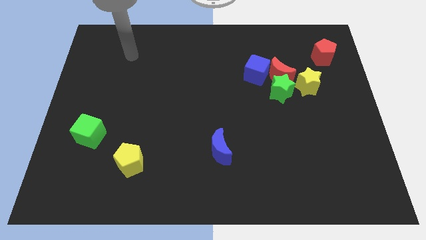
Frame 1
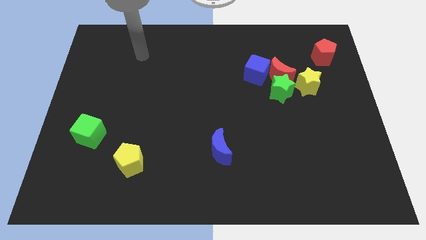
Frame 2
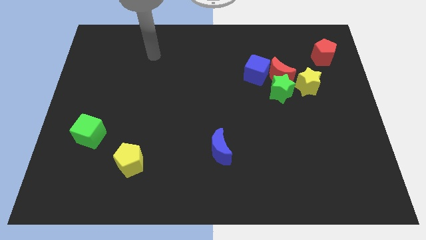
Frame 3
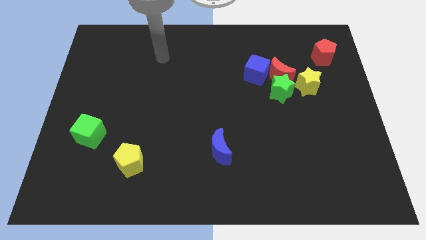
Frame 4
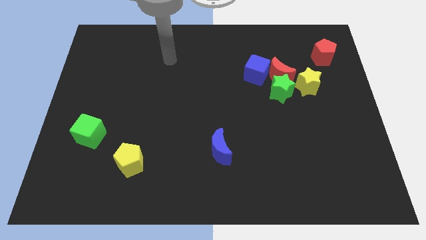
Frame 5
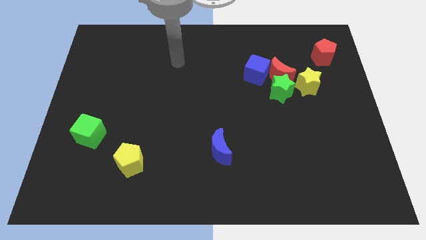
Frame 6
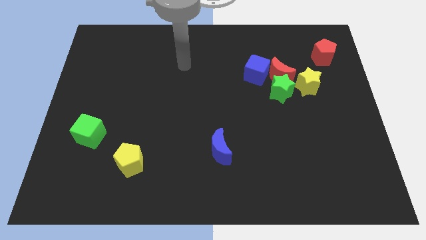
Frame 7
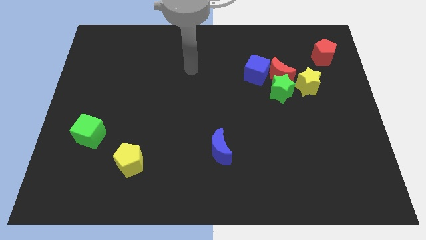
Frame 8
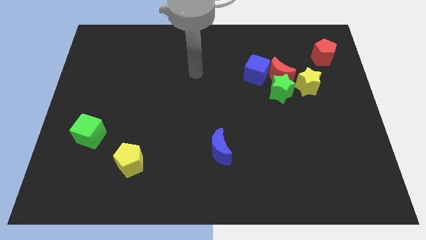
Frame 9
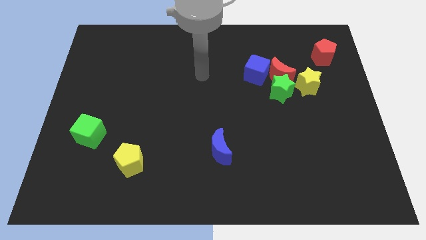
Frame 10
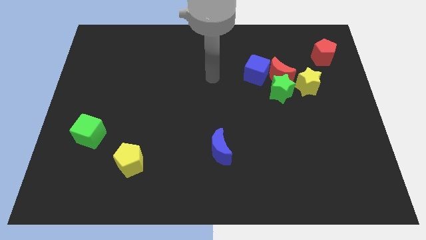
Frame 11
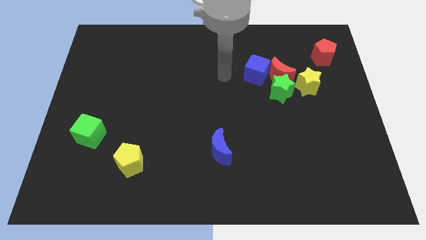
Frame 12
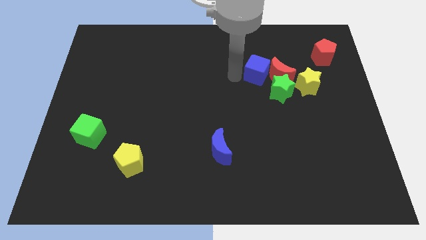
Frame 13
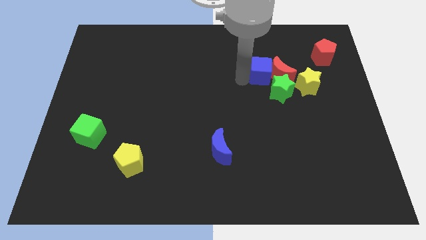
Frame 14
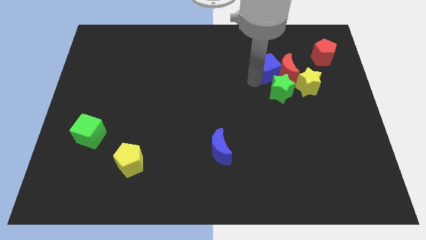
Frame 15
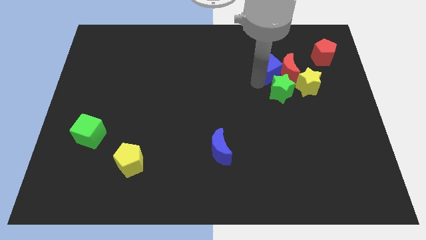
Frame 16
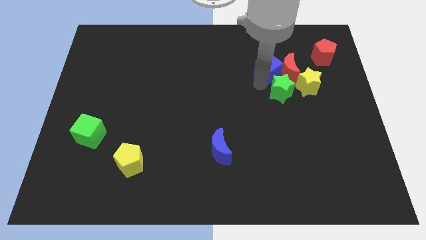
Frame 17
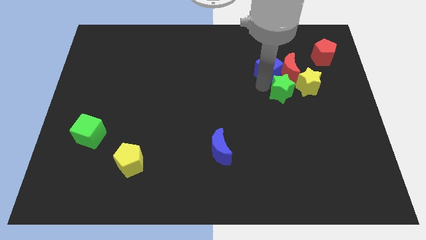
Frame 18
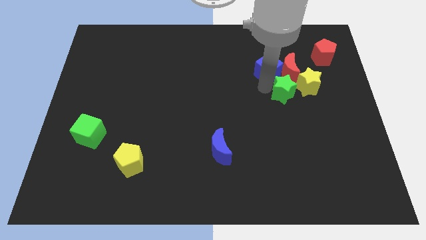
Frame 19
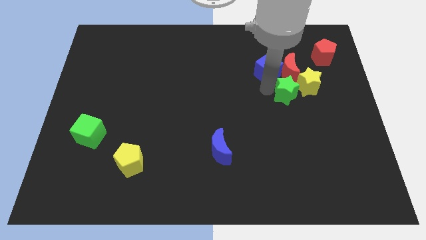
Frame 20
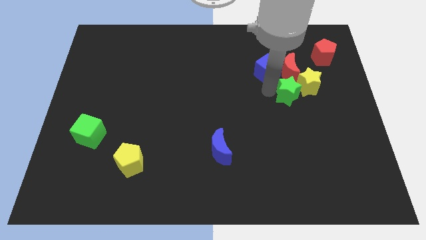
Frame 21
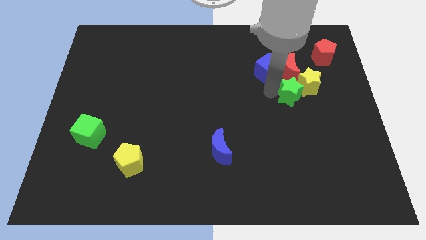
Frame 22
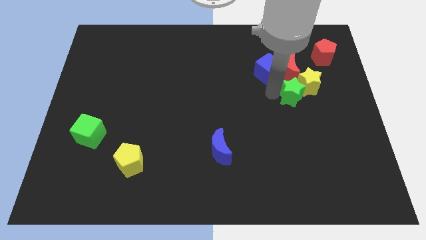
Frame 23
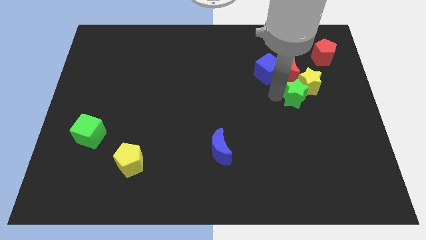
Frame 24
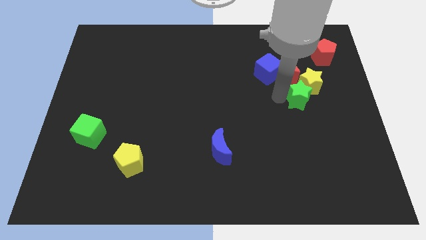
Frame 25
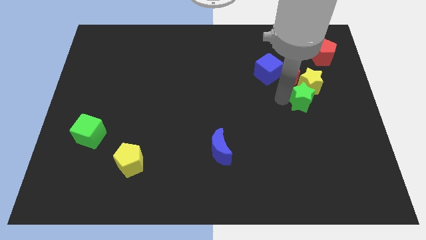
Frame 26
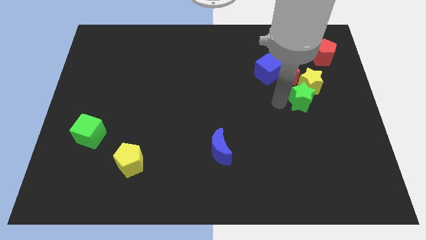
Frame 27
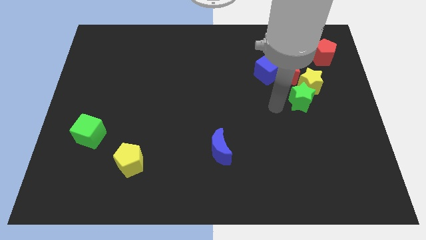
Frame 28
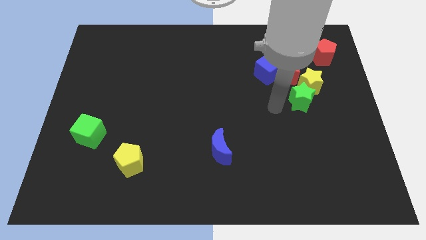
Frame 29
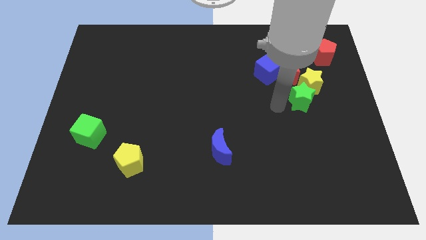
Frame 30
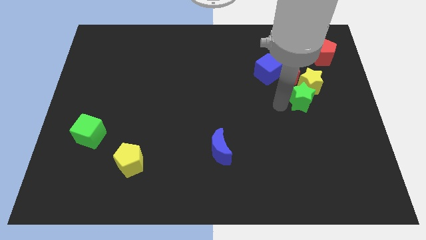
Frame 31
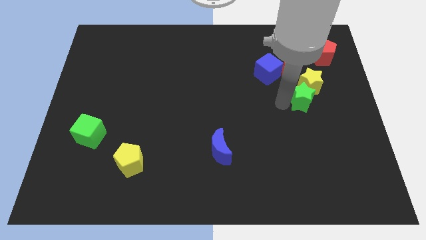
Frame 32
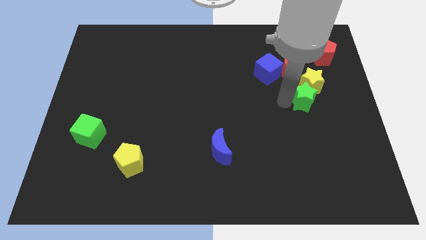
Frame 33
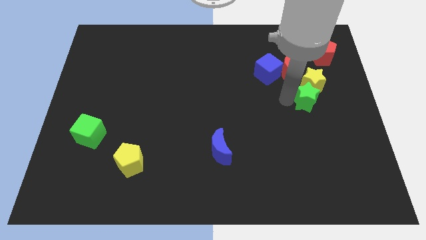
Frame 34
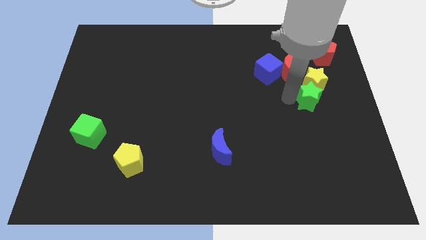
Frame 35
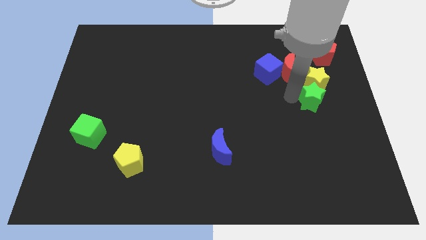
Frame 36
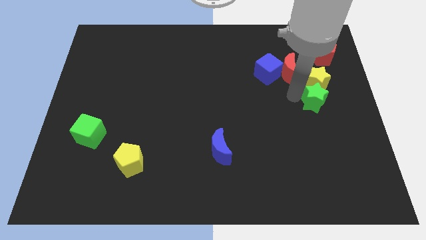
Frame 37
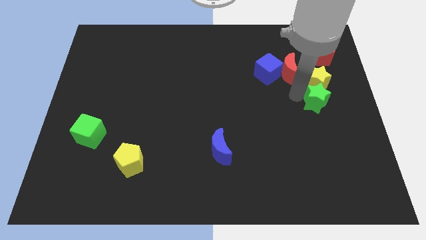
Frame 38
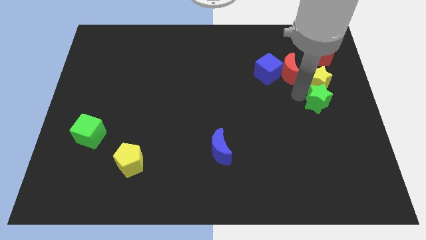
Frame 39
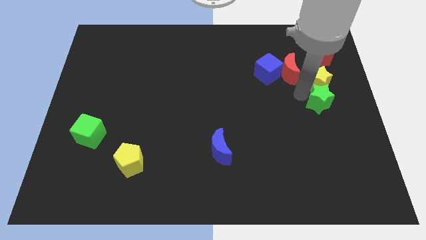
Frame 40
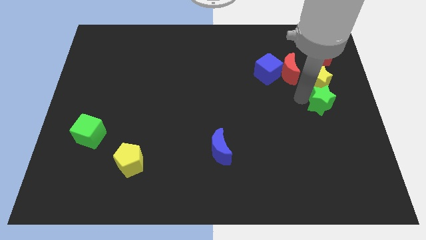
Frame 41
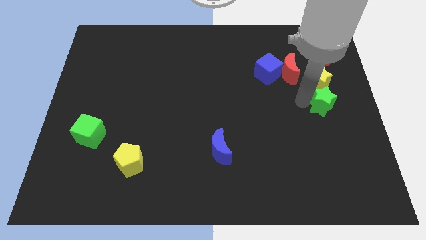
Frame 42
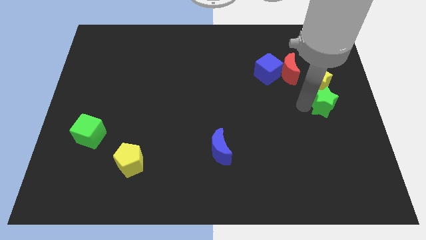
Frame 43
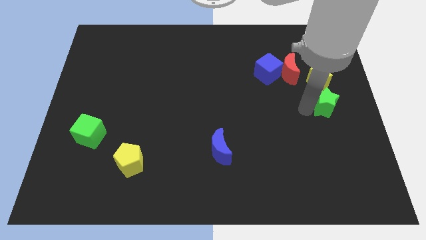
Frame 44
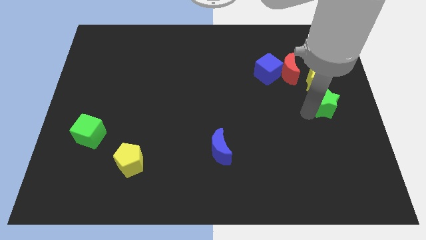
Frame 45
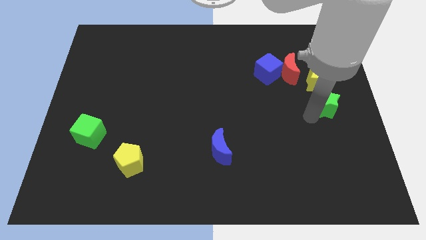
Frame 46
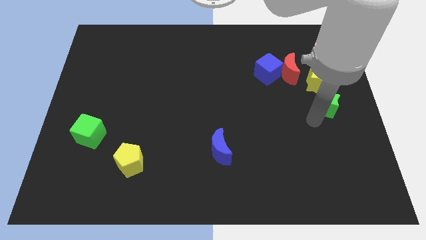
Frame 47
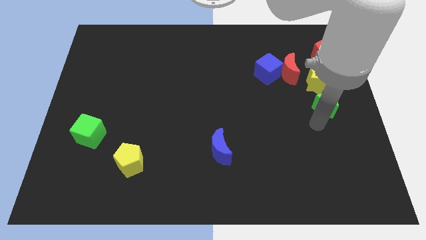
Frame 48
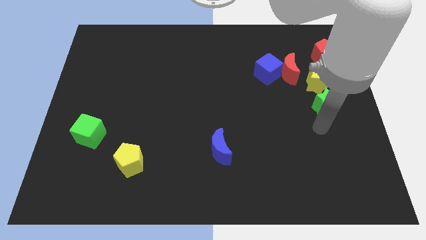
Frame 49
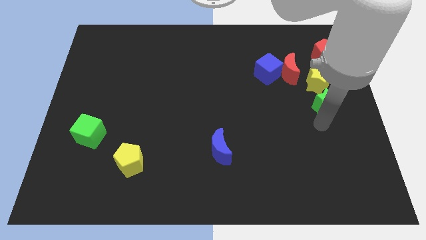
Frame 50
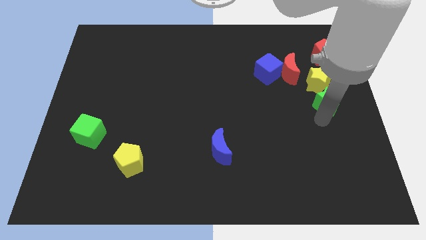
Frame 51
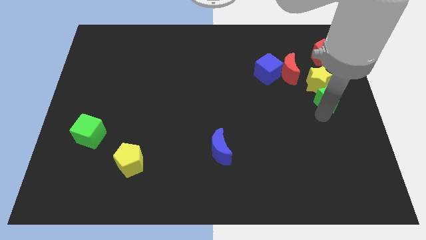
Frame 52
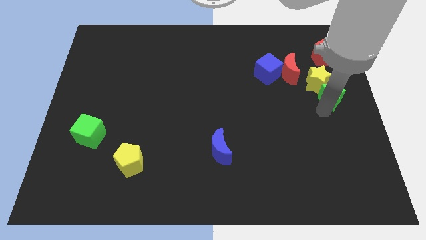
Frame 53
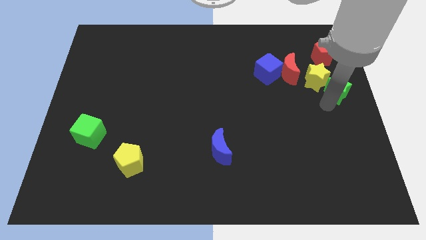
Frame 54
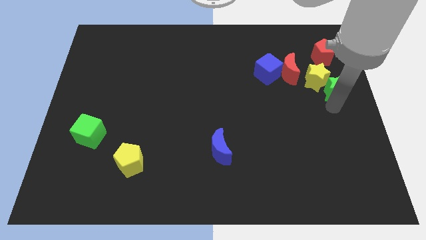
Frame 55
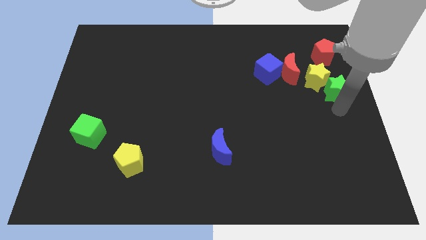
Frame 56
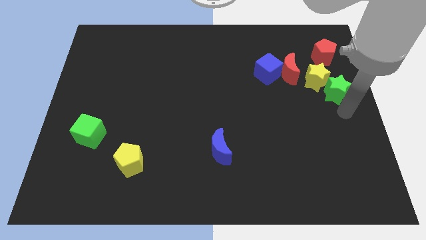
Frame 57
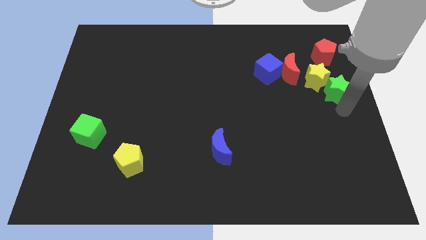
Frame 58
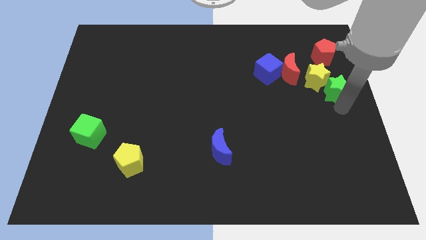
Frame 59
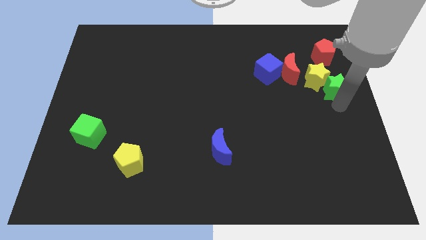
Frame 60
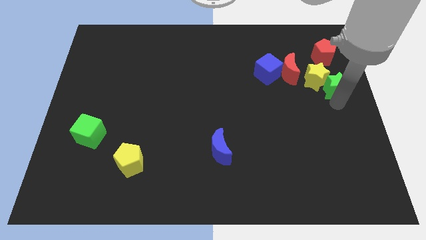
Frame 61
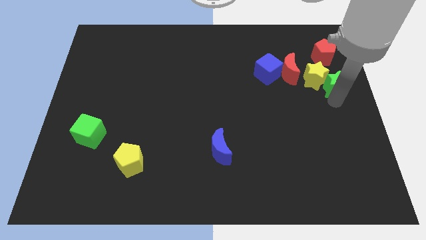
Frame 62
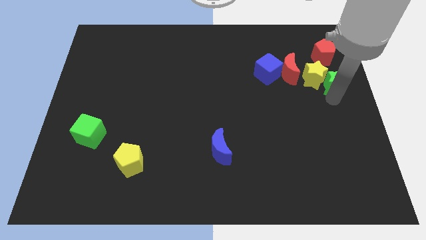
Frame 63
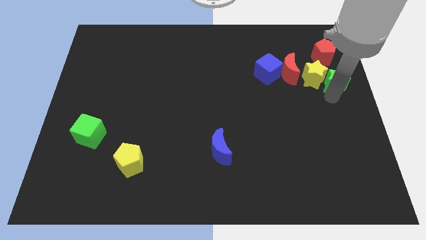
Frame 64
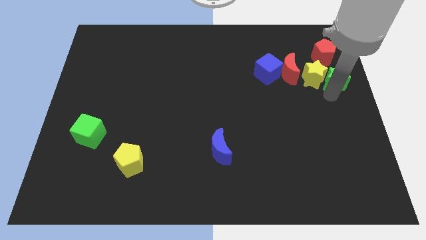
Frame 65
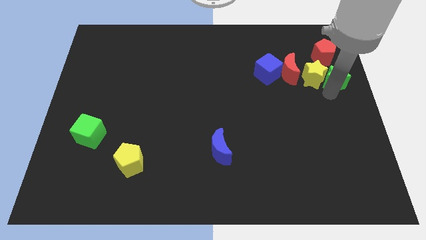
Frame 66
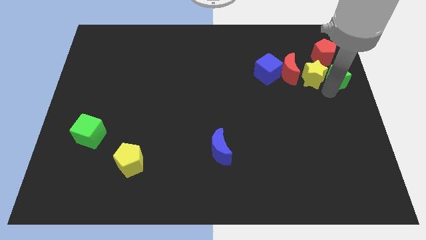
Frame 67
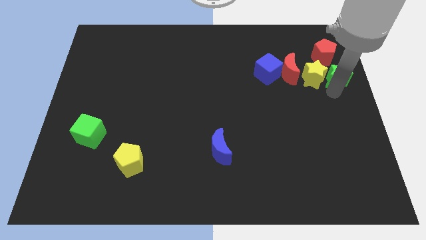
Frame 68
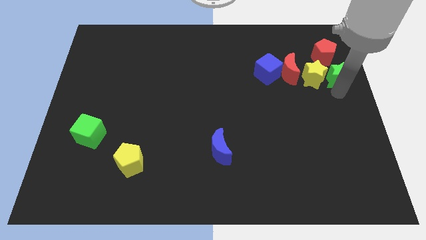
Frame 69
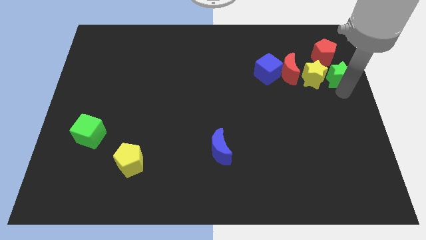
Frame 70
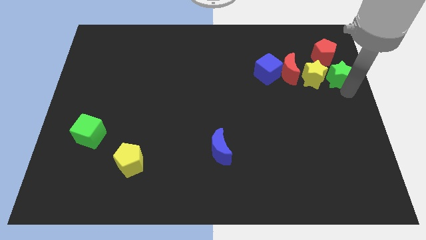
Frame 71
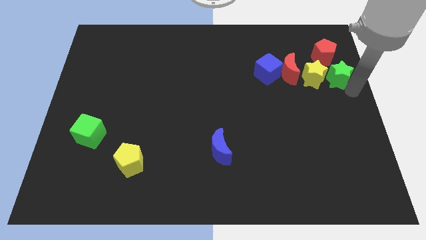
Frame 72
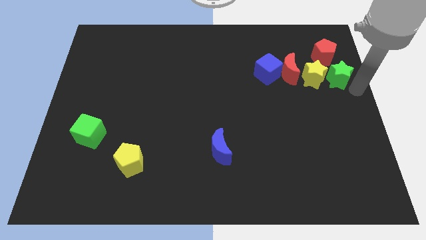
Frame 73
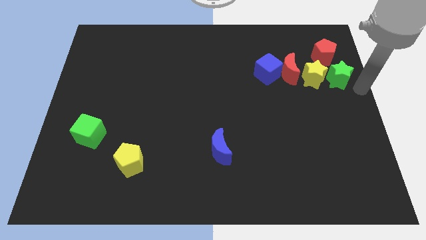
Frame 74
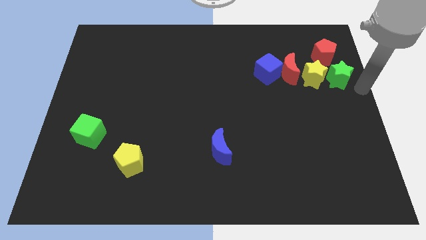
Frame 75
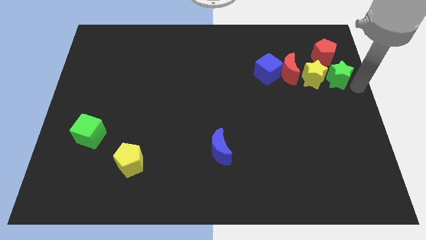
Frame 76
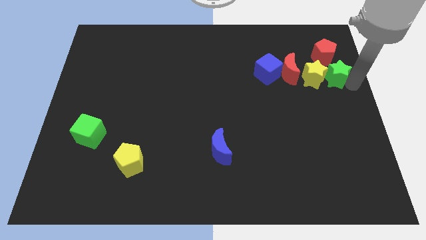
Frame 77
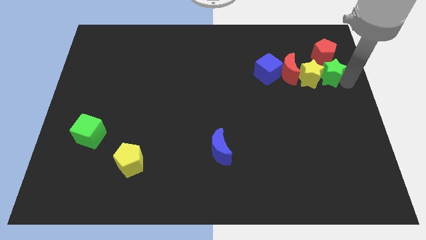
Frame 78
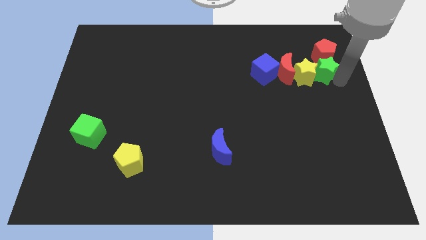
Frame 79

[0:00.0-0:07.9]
put the green star next to the red pentagon
